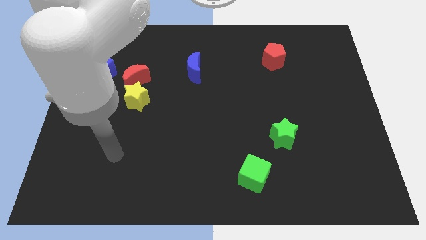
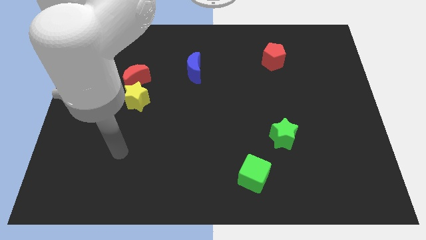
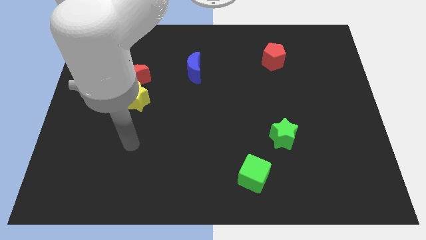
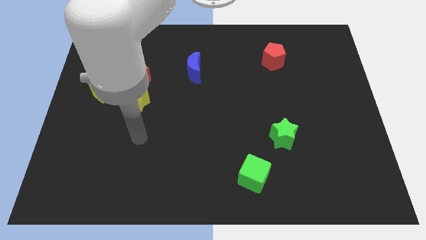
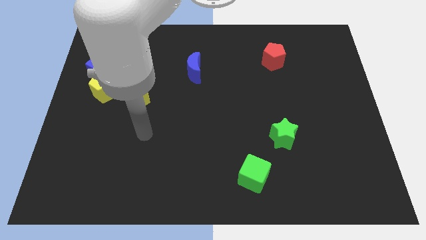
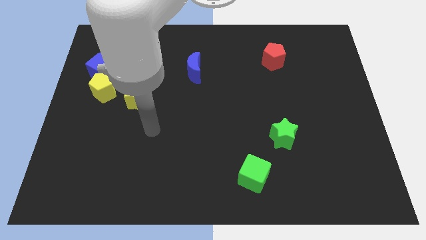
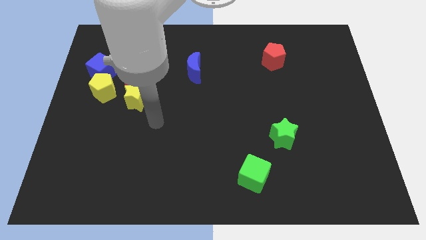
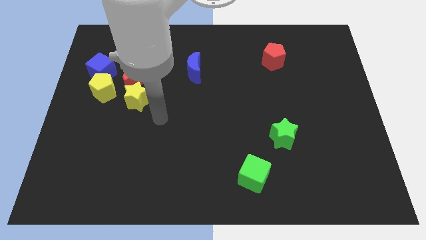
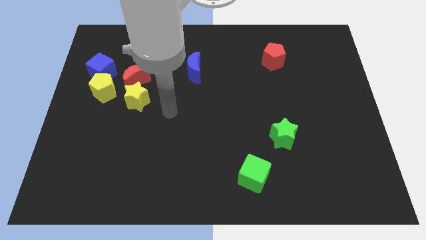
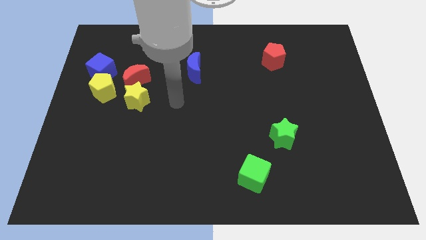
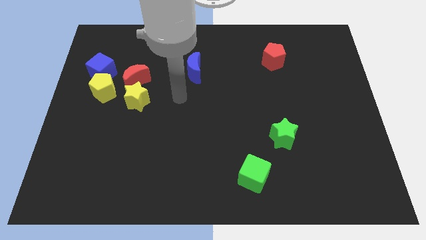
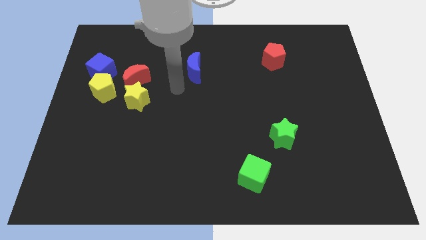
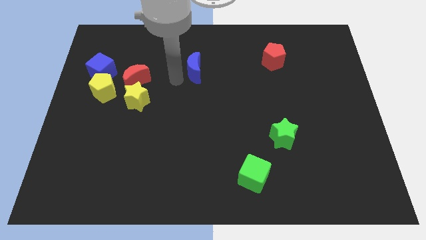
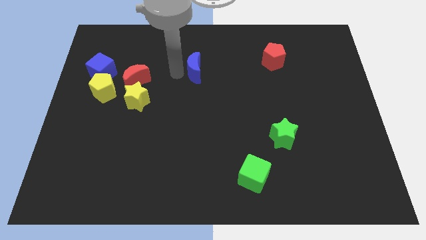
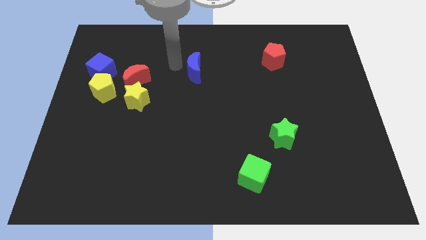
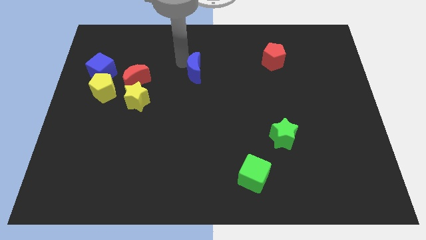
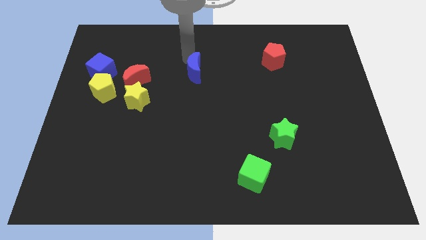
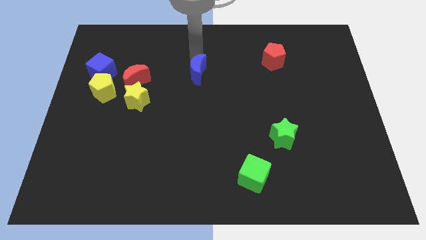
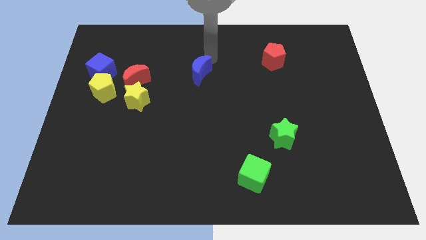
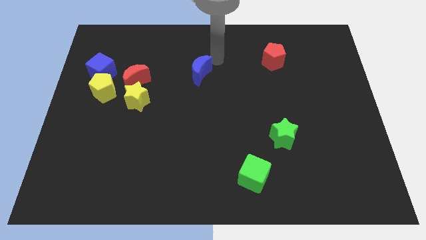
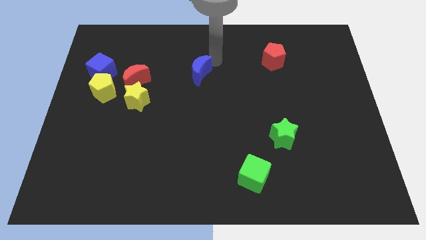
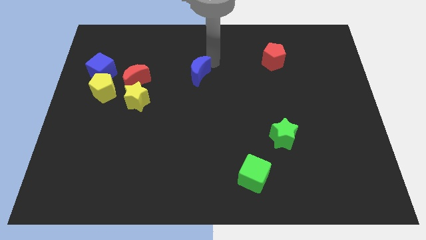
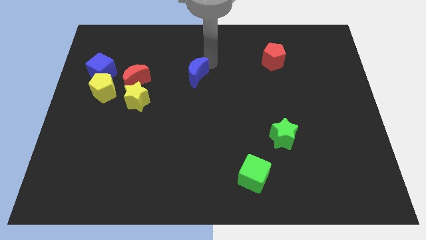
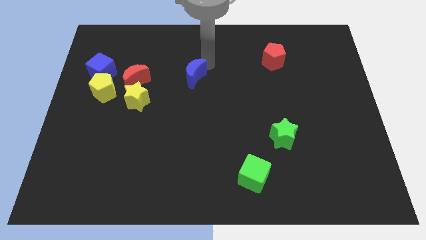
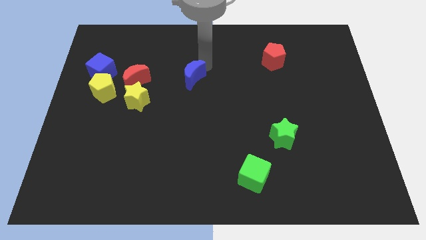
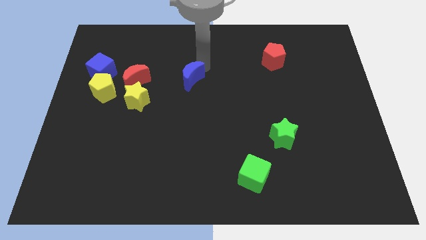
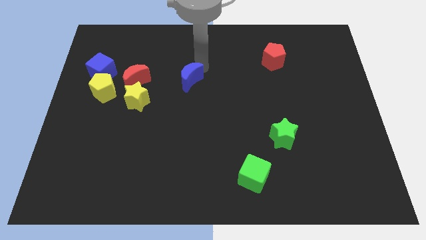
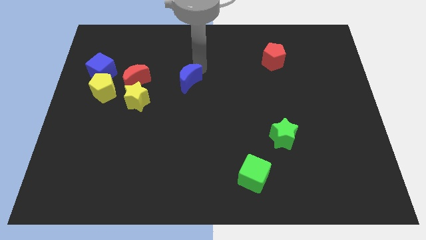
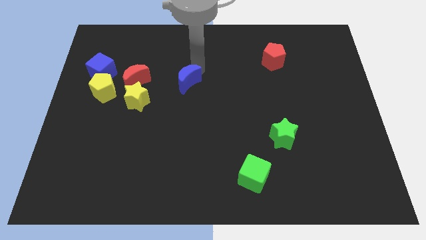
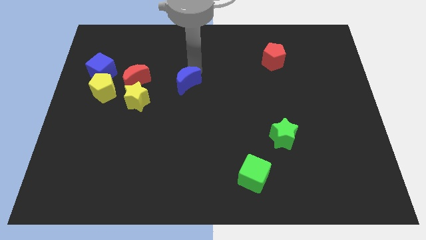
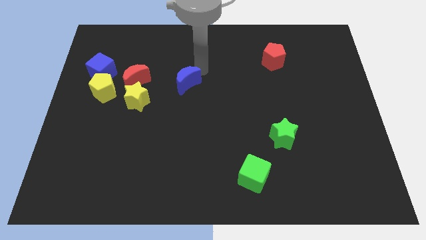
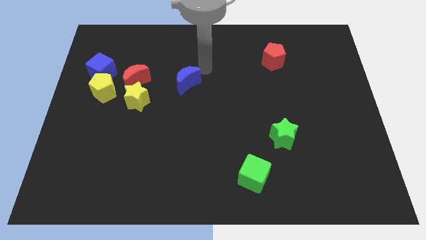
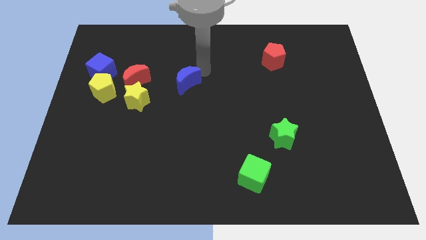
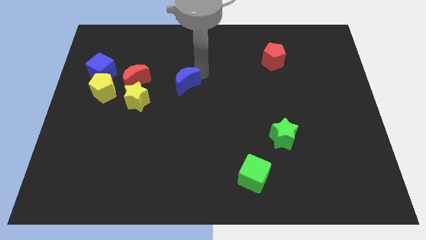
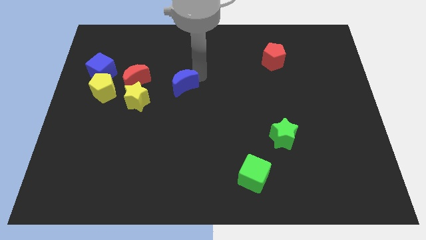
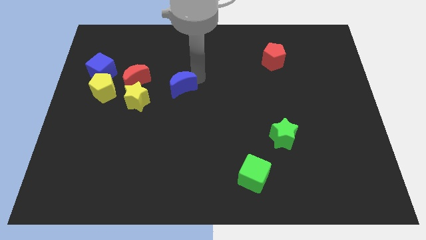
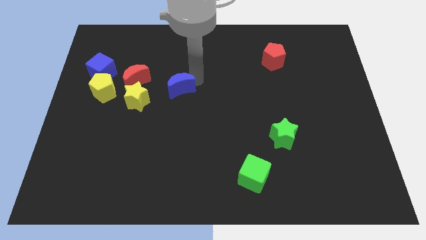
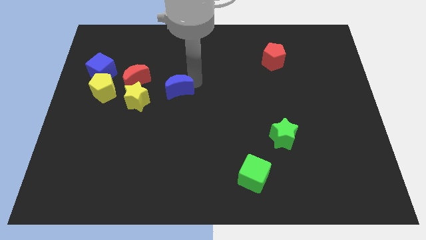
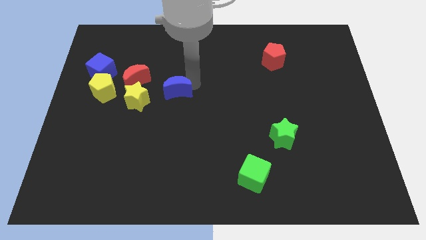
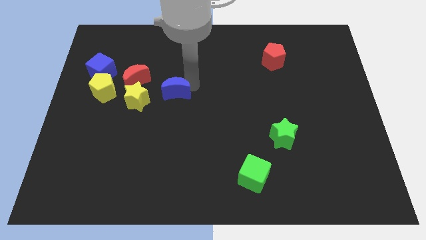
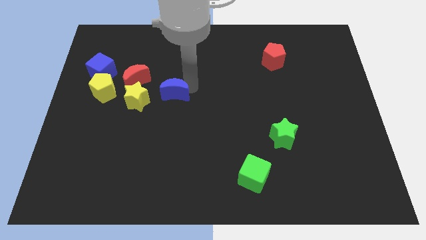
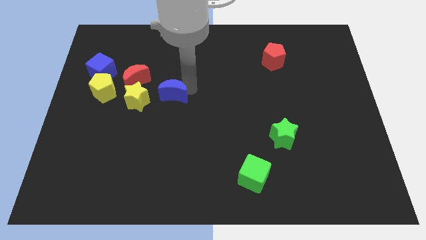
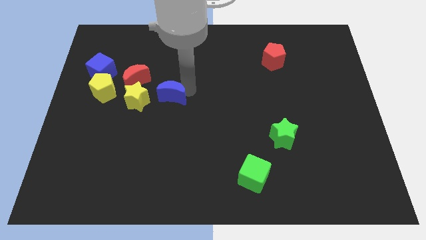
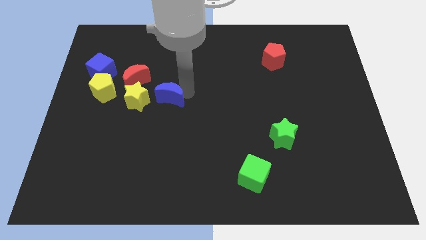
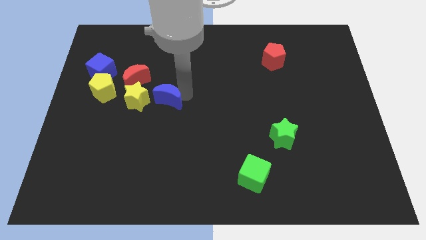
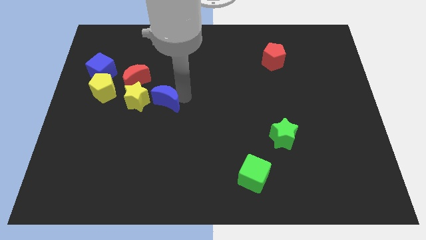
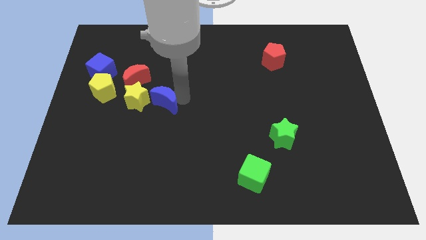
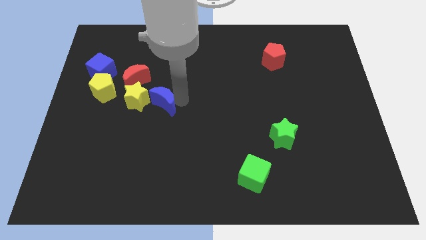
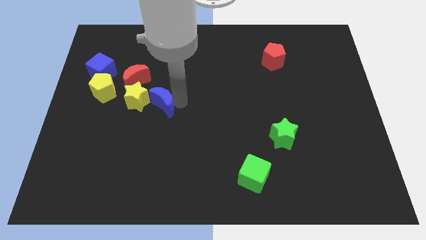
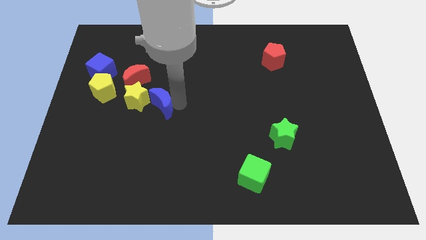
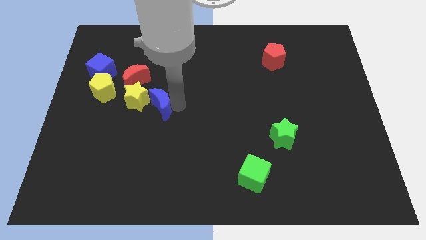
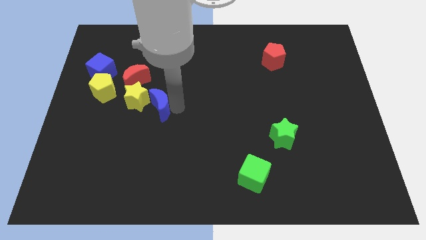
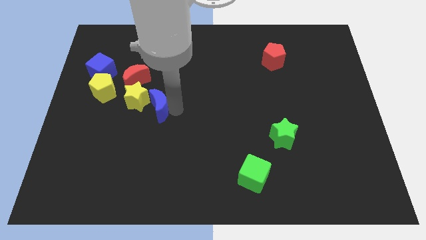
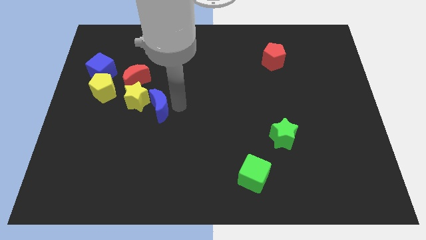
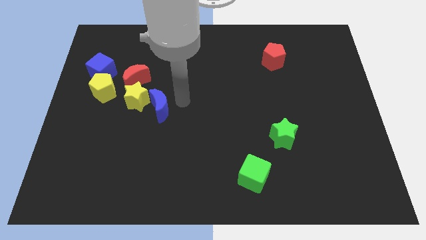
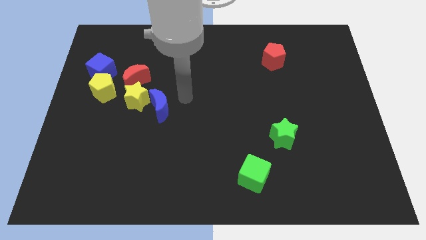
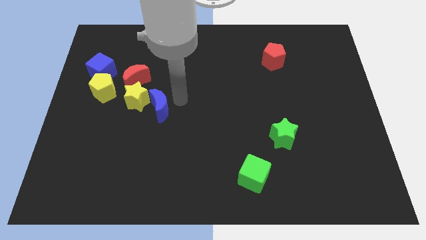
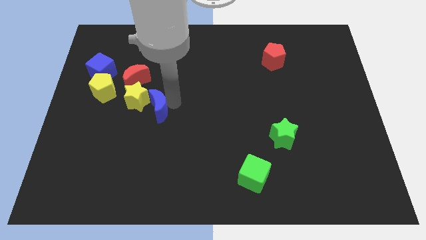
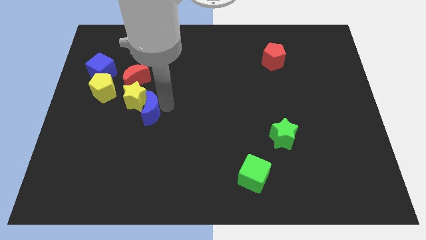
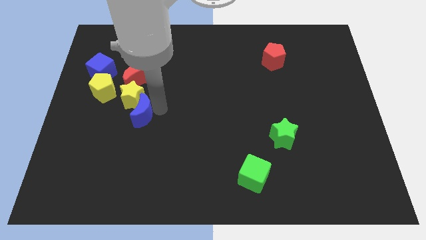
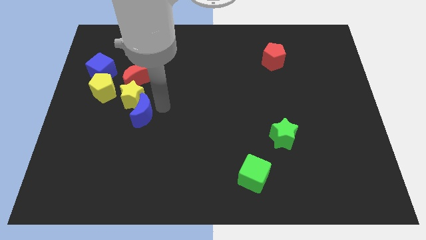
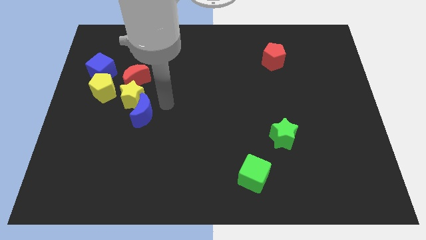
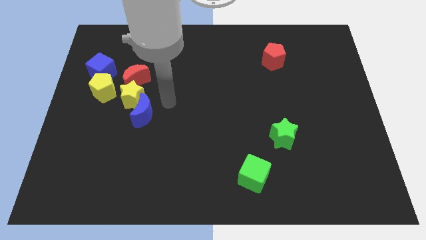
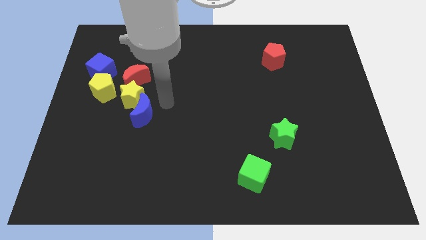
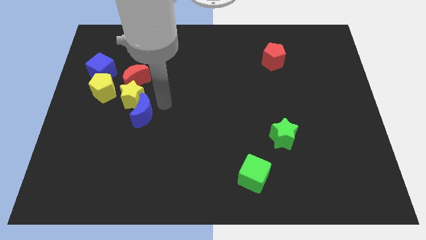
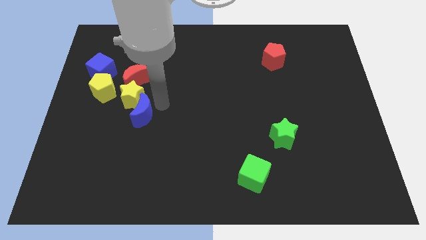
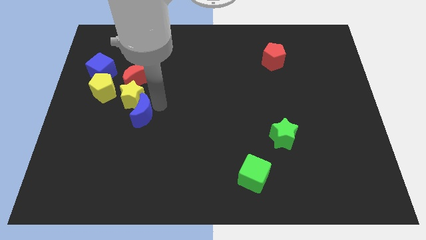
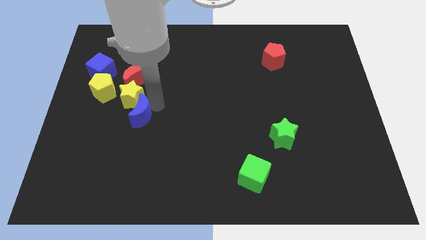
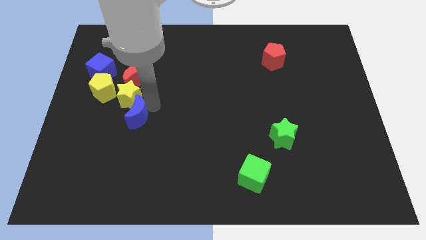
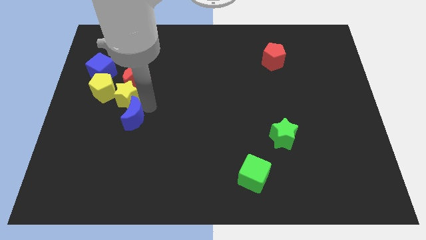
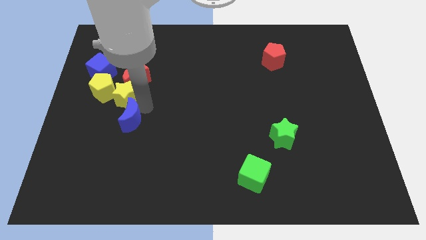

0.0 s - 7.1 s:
move the blue moon down and to the left diagonally

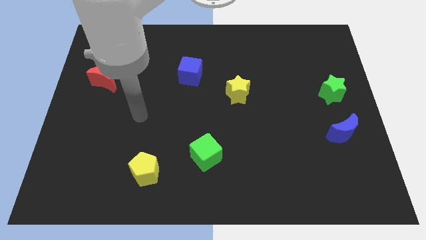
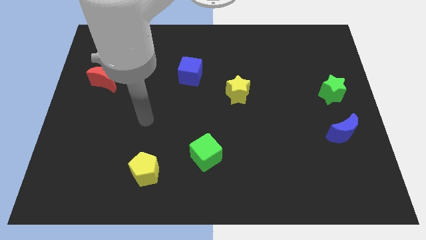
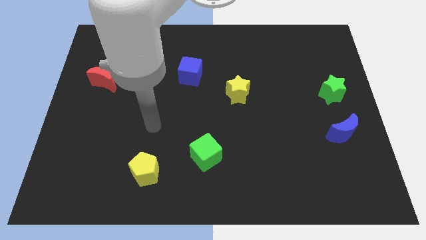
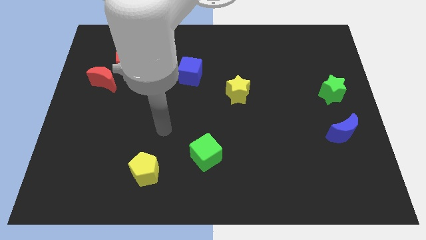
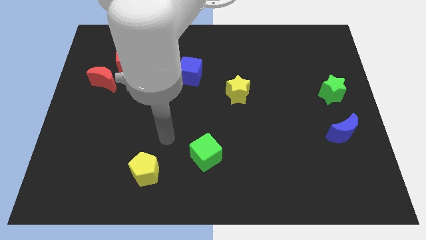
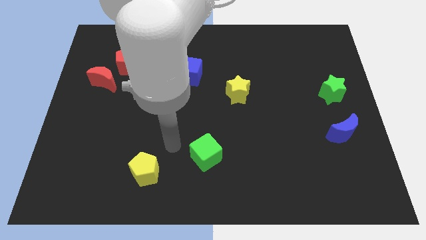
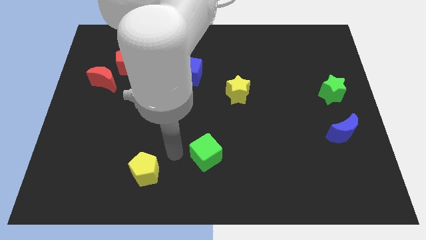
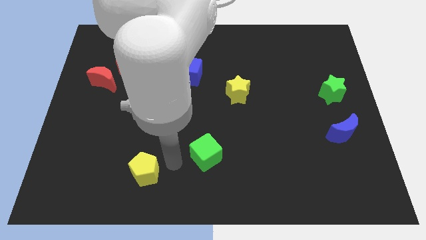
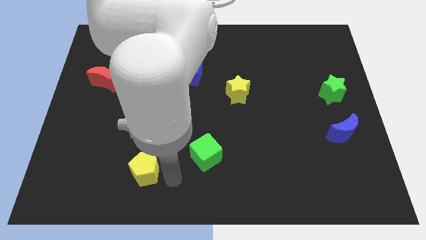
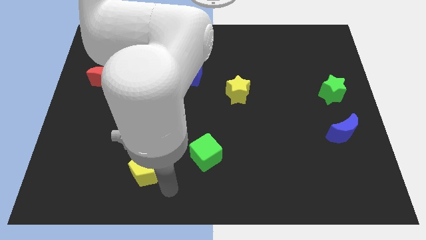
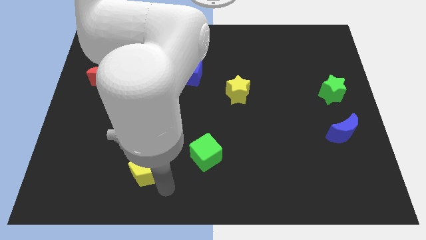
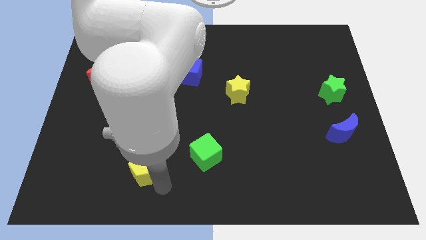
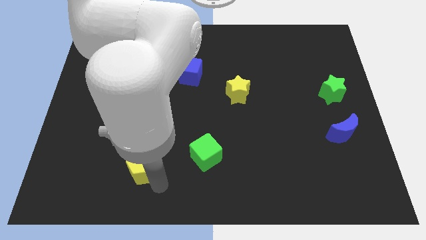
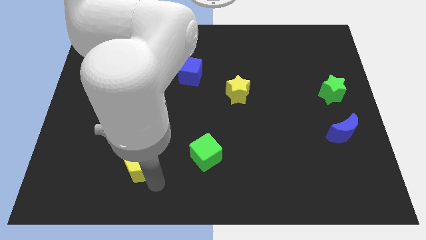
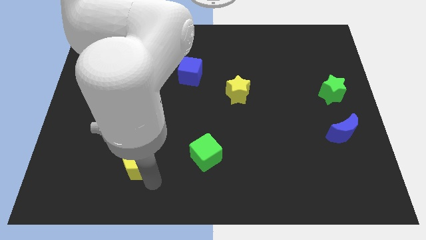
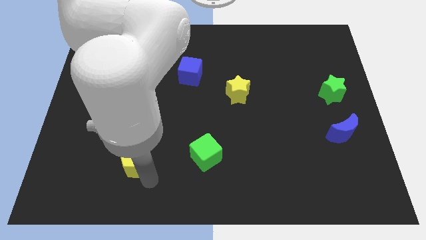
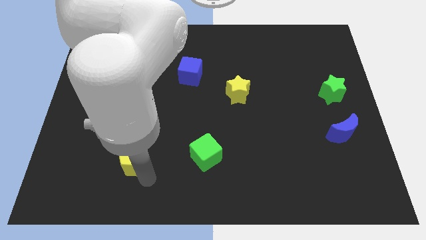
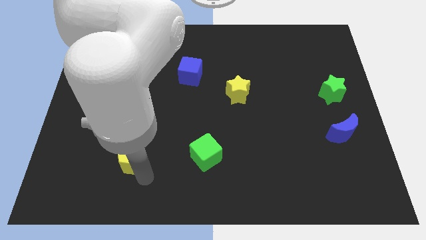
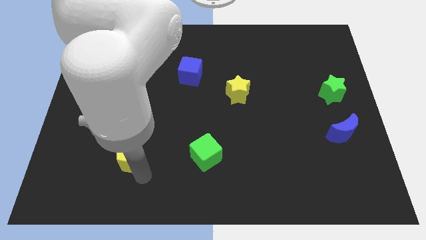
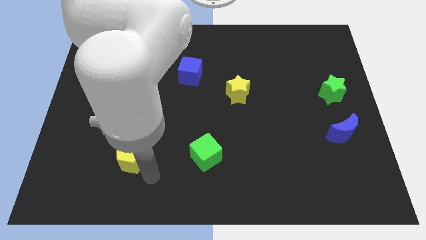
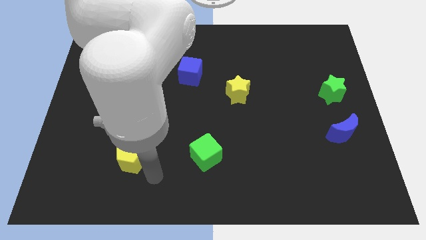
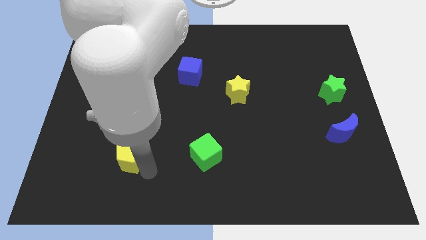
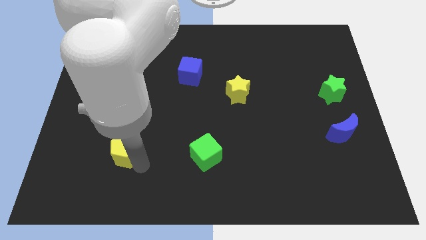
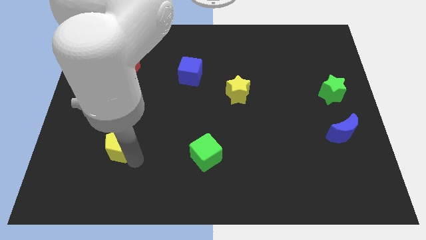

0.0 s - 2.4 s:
slightly push the yellow pentagon upwards and left
